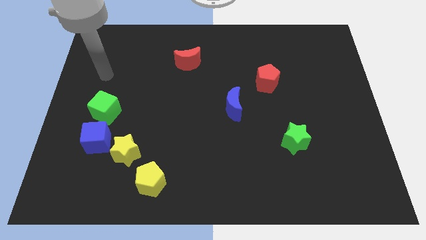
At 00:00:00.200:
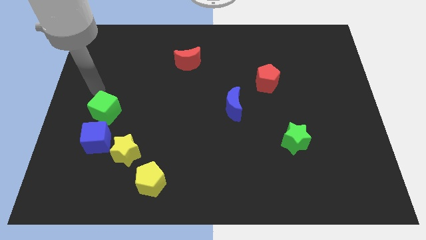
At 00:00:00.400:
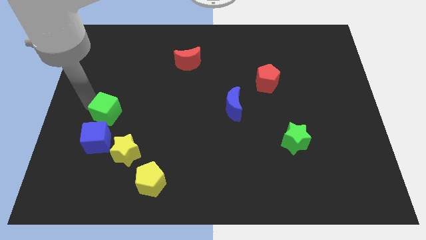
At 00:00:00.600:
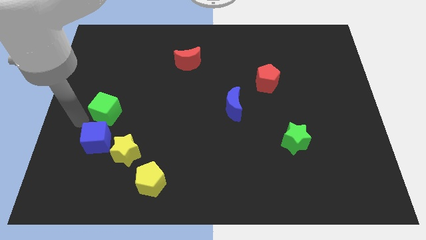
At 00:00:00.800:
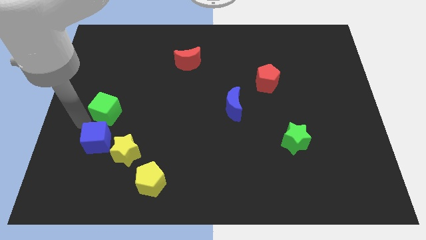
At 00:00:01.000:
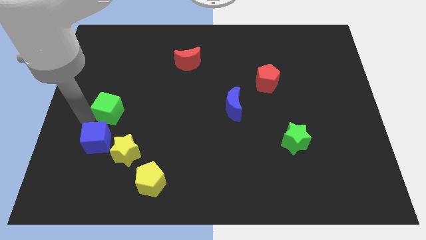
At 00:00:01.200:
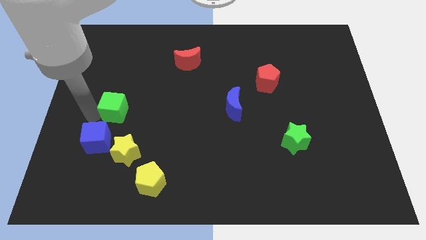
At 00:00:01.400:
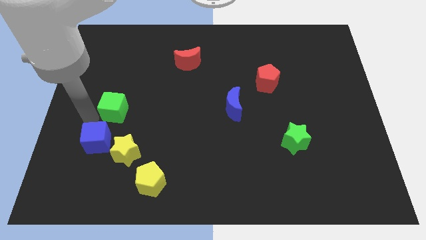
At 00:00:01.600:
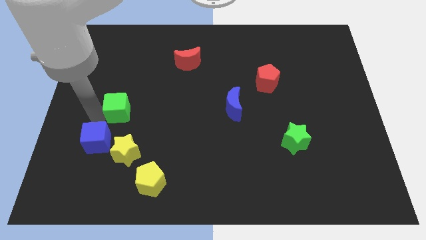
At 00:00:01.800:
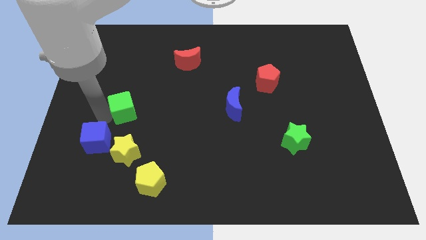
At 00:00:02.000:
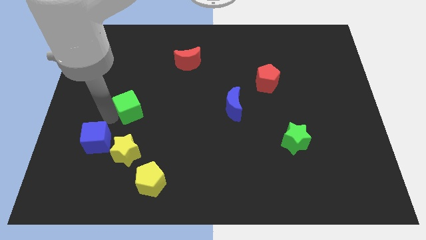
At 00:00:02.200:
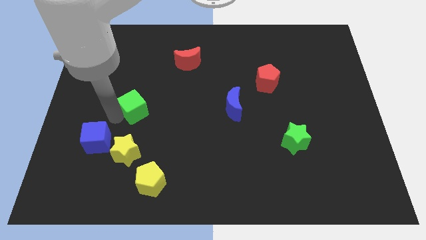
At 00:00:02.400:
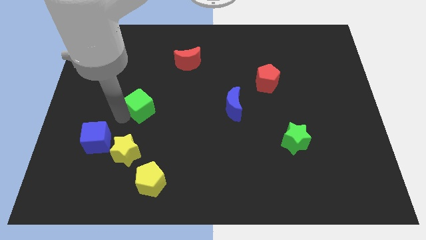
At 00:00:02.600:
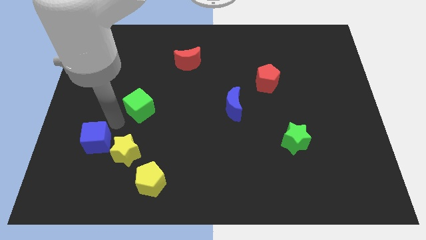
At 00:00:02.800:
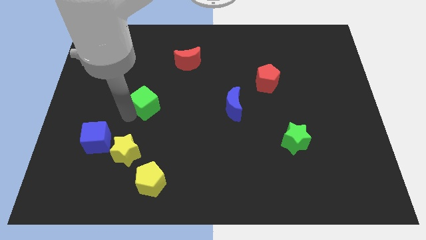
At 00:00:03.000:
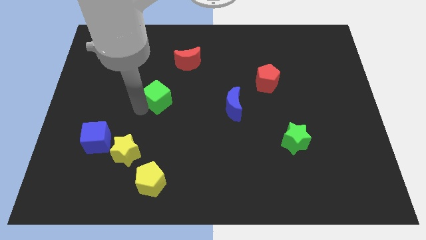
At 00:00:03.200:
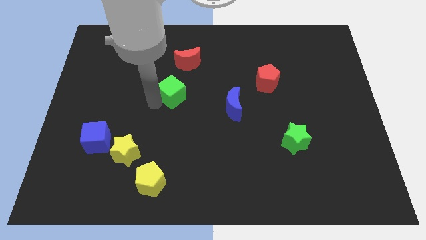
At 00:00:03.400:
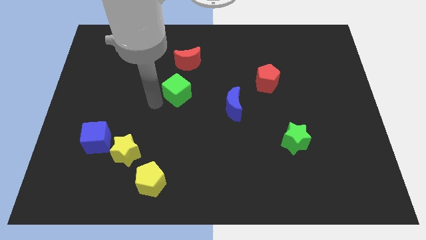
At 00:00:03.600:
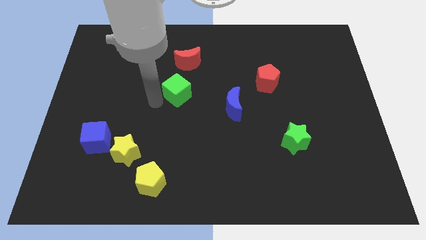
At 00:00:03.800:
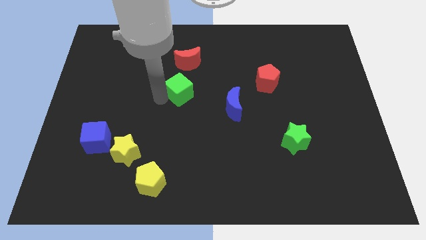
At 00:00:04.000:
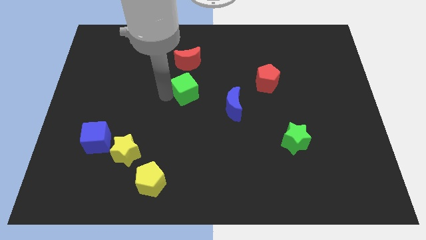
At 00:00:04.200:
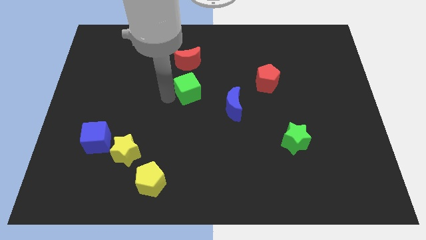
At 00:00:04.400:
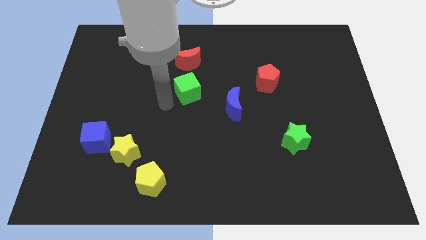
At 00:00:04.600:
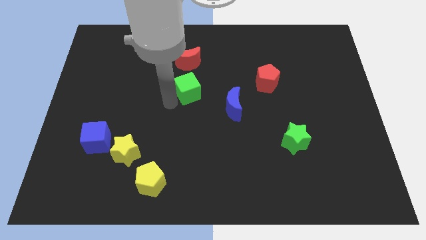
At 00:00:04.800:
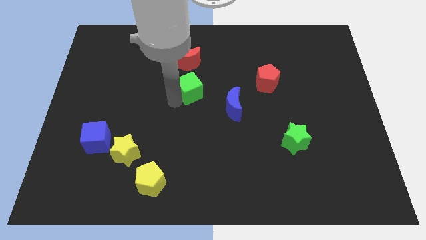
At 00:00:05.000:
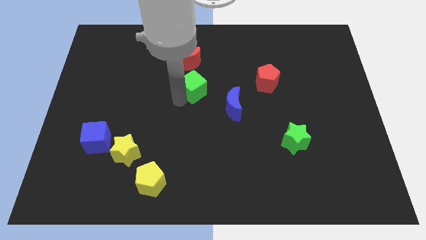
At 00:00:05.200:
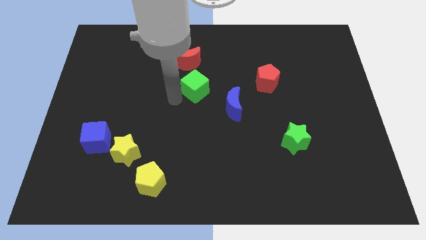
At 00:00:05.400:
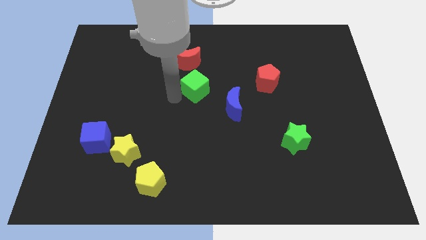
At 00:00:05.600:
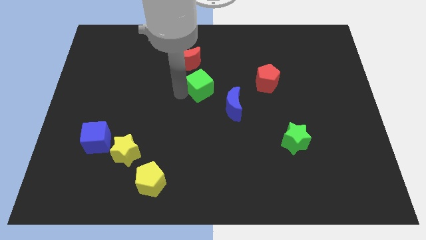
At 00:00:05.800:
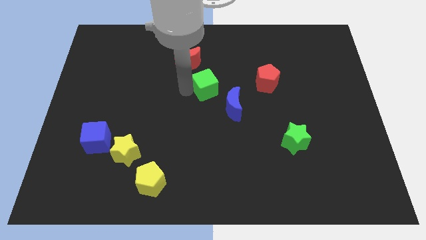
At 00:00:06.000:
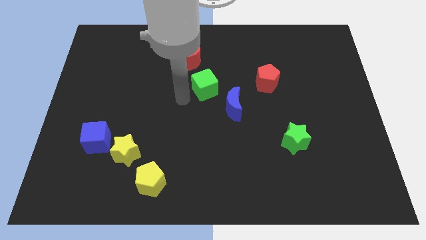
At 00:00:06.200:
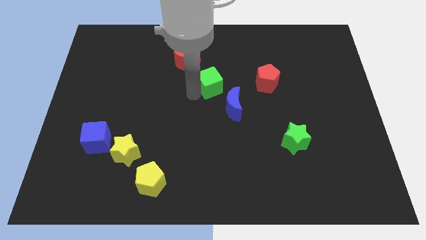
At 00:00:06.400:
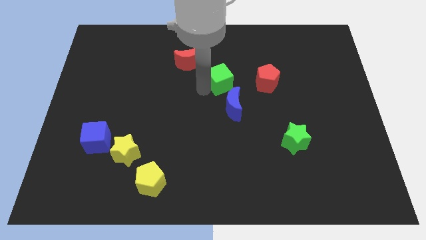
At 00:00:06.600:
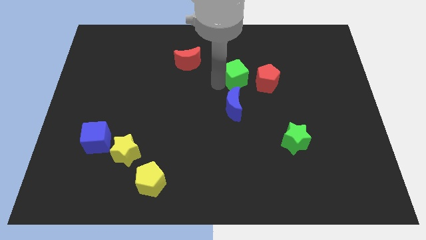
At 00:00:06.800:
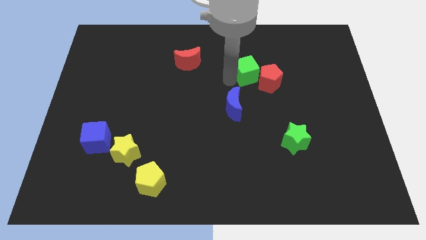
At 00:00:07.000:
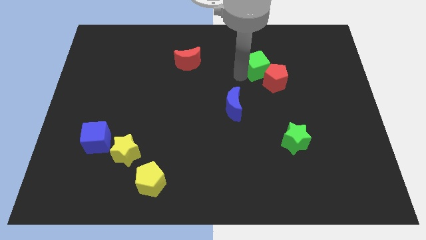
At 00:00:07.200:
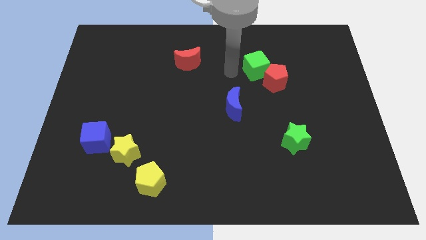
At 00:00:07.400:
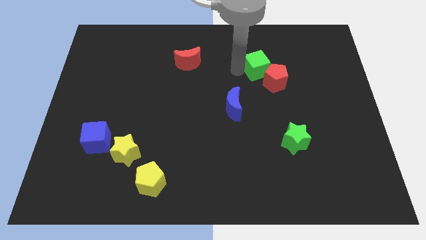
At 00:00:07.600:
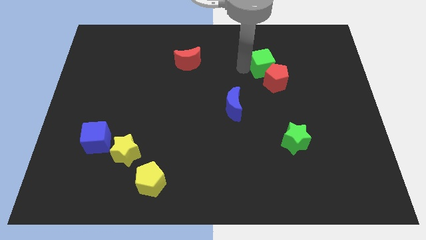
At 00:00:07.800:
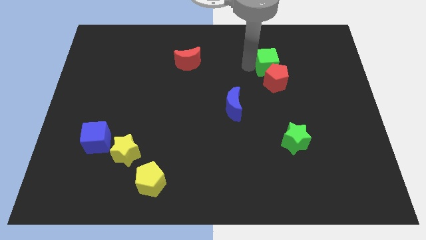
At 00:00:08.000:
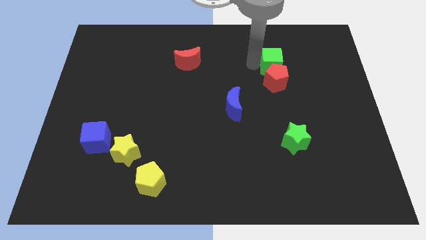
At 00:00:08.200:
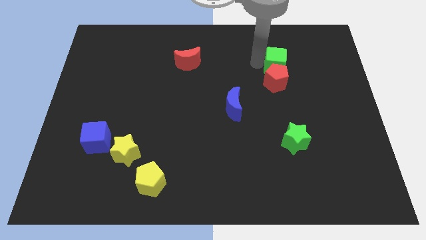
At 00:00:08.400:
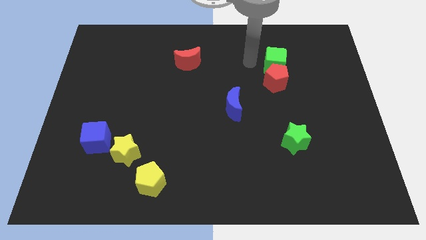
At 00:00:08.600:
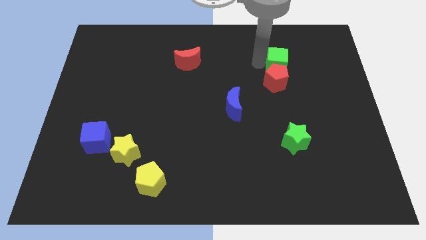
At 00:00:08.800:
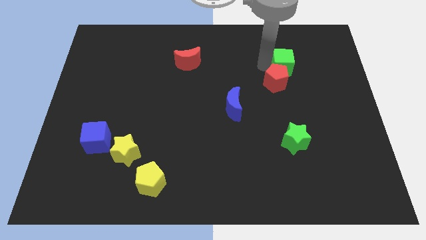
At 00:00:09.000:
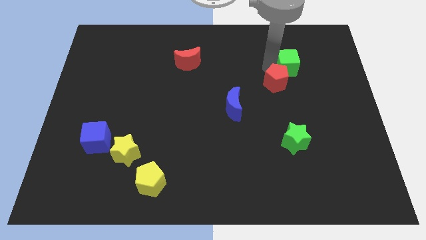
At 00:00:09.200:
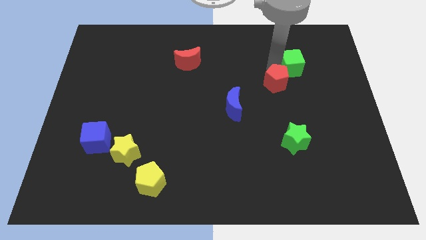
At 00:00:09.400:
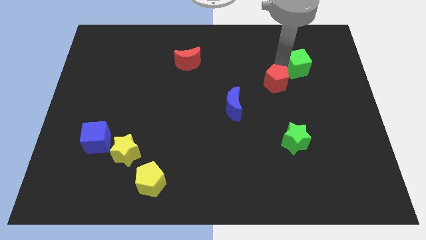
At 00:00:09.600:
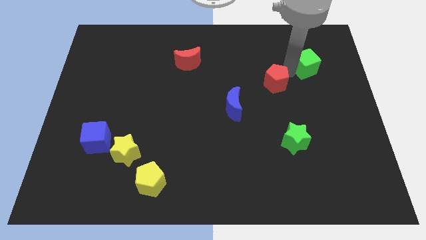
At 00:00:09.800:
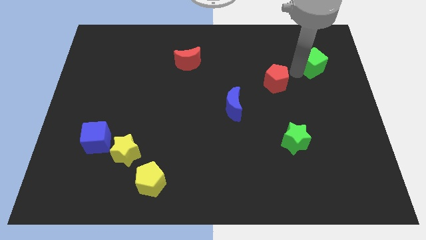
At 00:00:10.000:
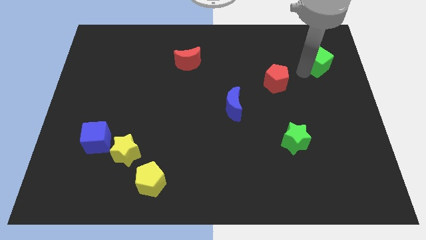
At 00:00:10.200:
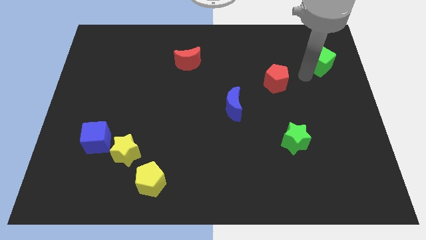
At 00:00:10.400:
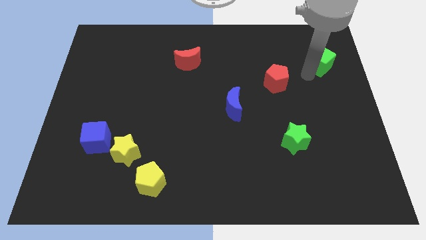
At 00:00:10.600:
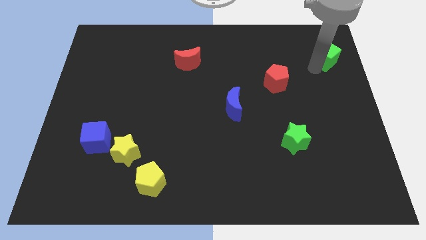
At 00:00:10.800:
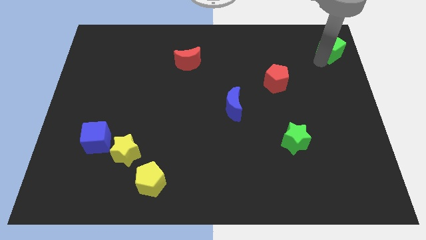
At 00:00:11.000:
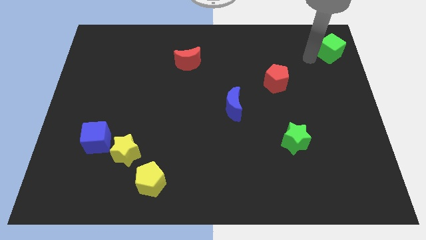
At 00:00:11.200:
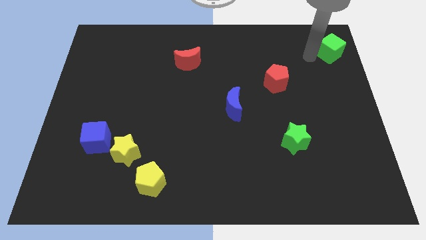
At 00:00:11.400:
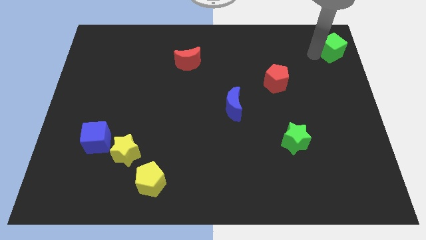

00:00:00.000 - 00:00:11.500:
slide the green cube to the upper right corner

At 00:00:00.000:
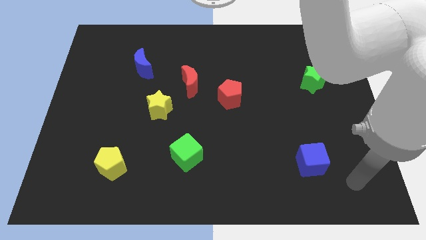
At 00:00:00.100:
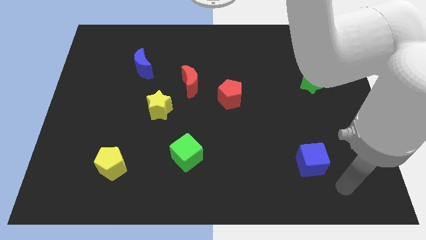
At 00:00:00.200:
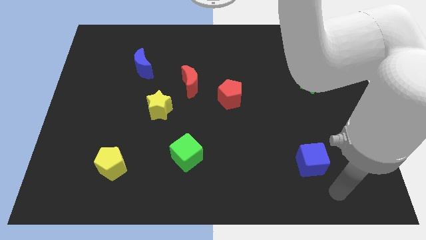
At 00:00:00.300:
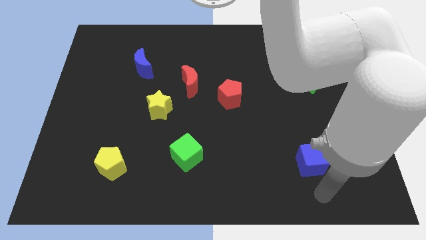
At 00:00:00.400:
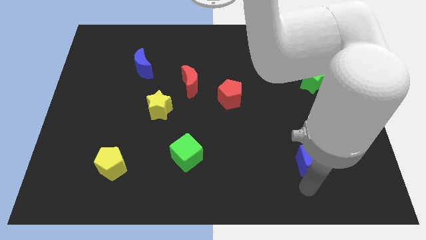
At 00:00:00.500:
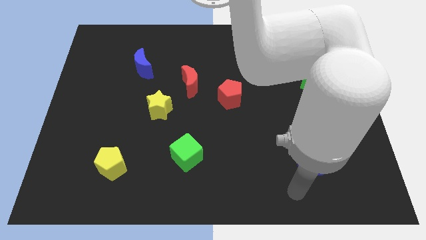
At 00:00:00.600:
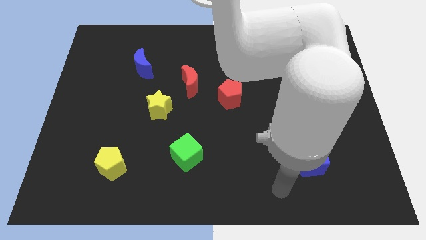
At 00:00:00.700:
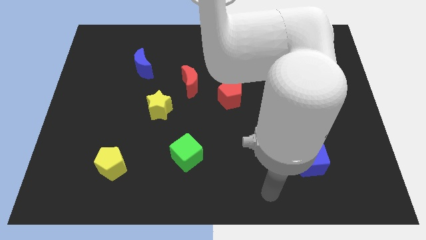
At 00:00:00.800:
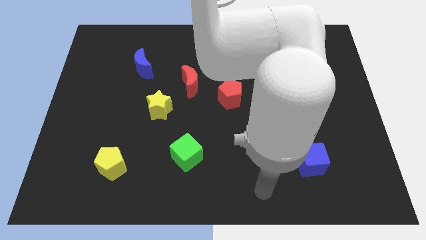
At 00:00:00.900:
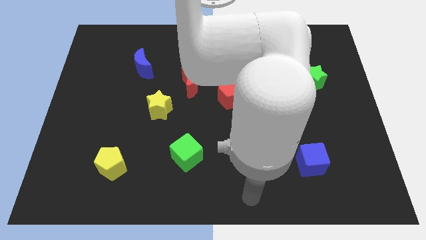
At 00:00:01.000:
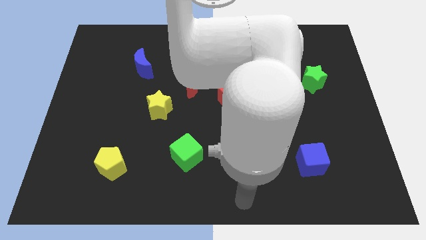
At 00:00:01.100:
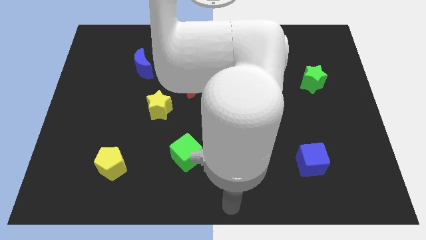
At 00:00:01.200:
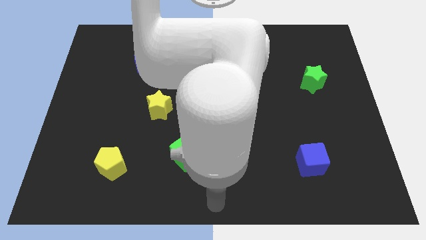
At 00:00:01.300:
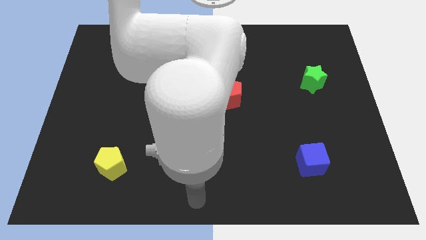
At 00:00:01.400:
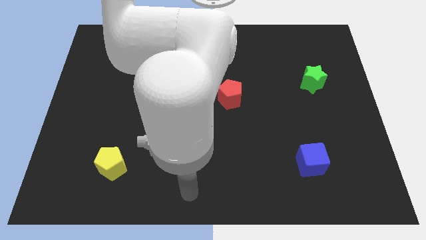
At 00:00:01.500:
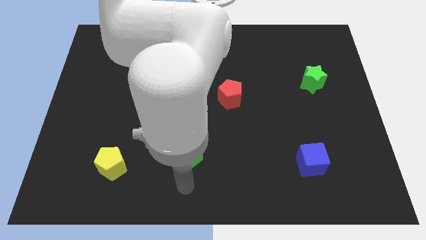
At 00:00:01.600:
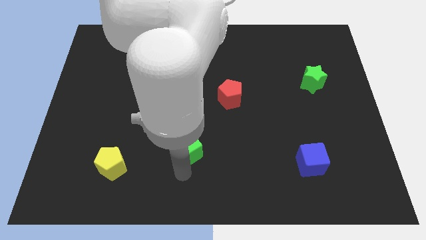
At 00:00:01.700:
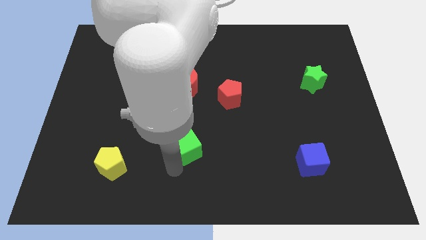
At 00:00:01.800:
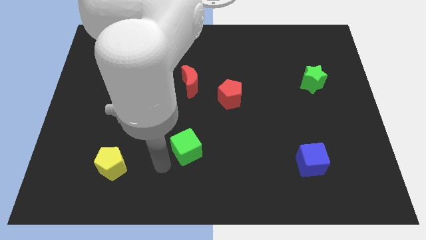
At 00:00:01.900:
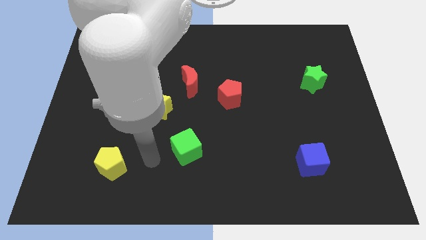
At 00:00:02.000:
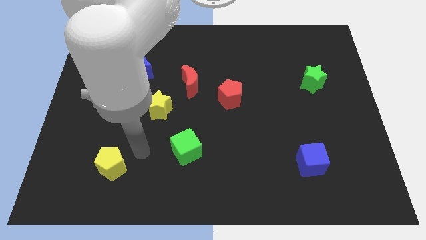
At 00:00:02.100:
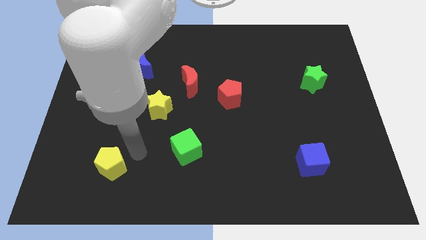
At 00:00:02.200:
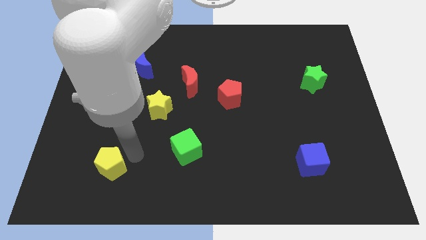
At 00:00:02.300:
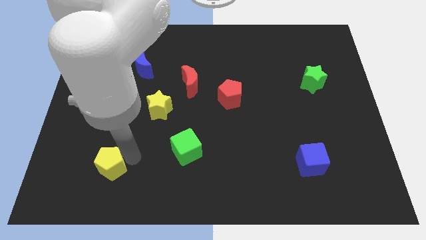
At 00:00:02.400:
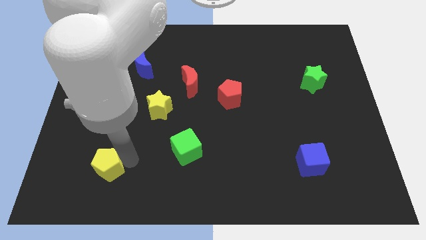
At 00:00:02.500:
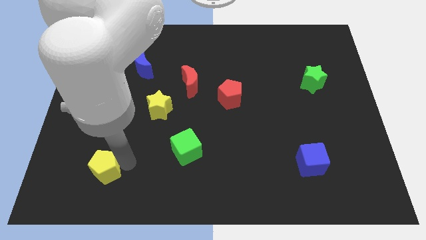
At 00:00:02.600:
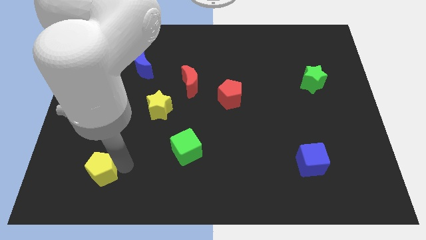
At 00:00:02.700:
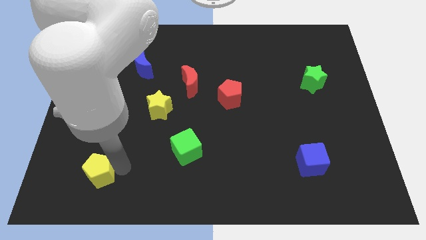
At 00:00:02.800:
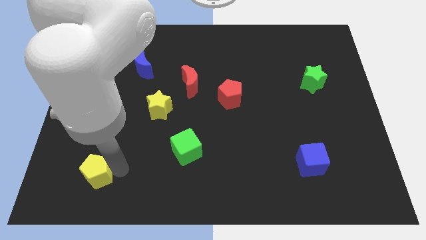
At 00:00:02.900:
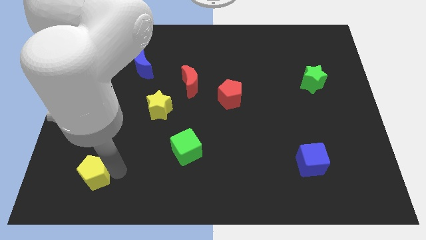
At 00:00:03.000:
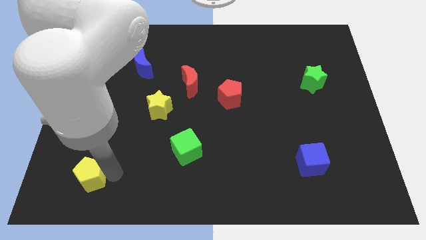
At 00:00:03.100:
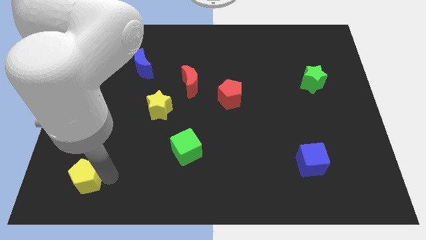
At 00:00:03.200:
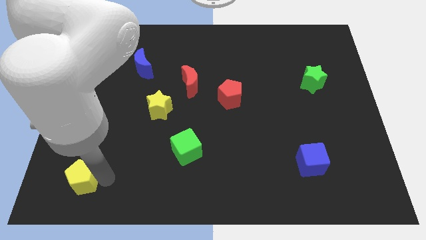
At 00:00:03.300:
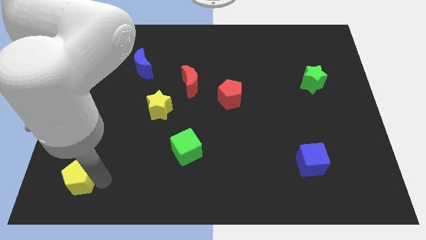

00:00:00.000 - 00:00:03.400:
push the yellow pentagon to the bottom left corner
